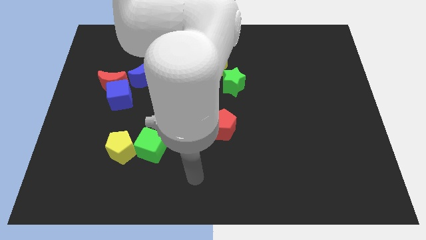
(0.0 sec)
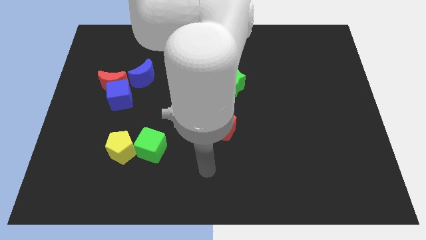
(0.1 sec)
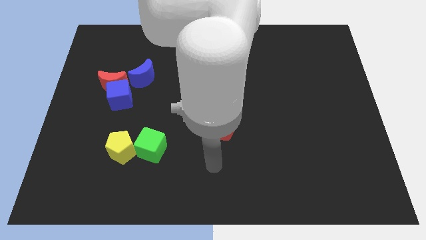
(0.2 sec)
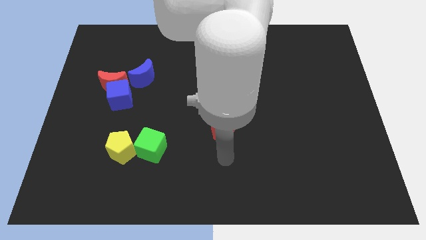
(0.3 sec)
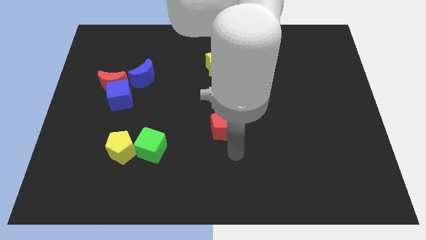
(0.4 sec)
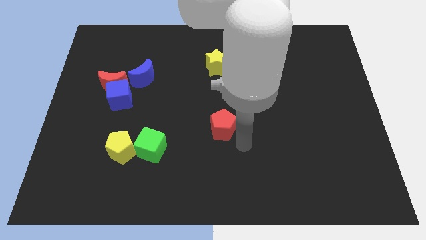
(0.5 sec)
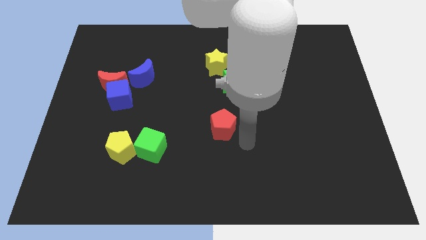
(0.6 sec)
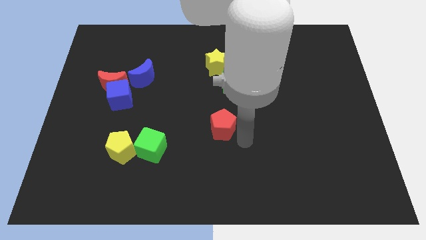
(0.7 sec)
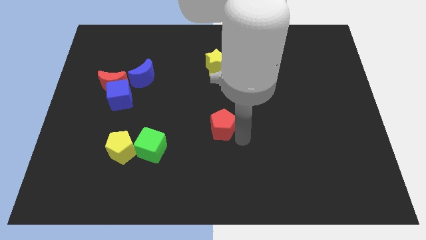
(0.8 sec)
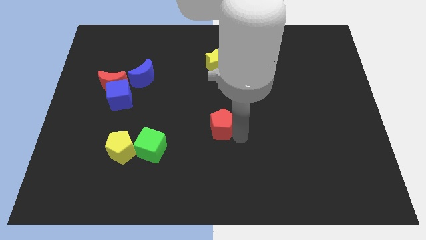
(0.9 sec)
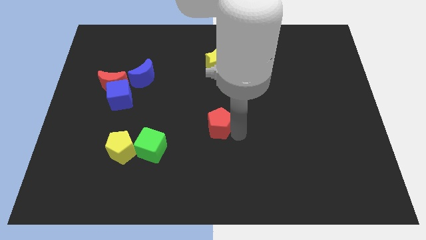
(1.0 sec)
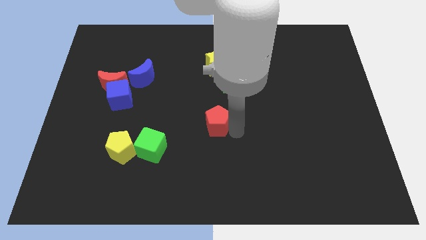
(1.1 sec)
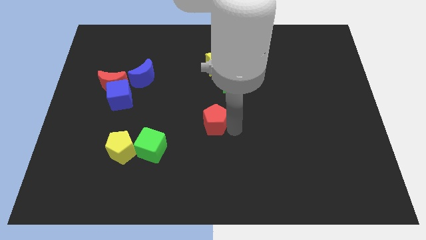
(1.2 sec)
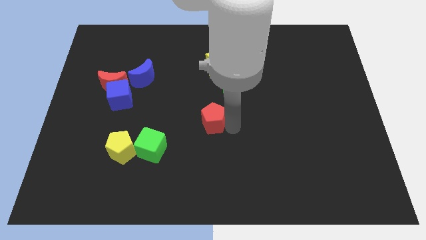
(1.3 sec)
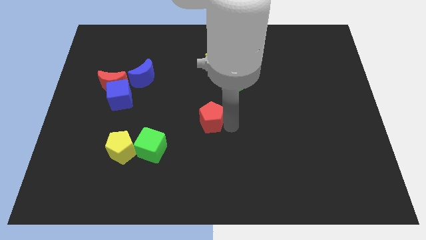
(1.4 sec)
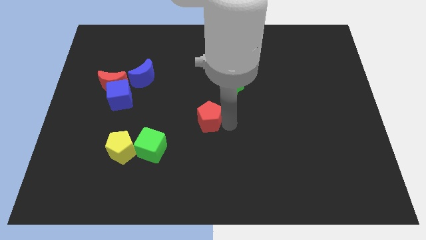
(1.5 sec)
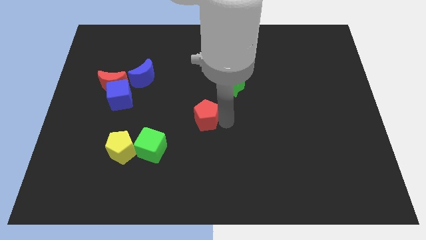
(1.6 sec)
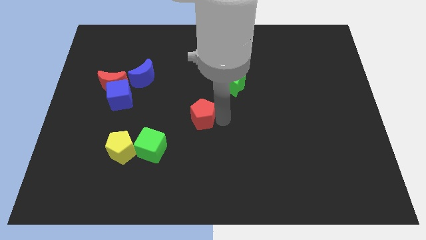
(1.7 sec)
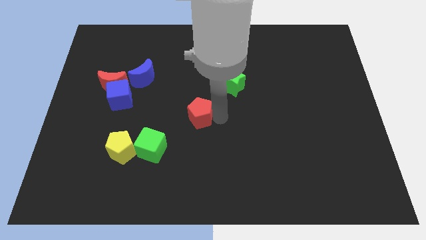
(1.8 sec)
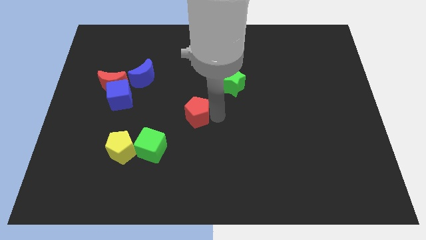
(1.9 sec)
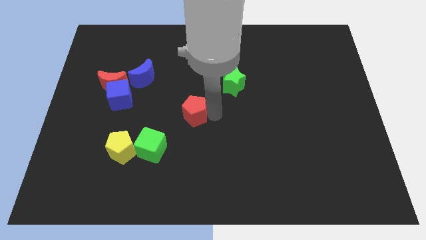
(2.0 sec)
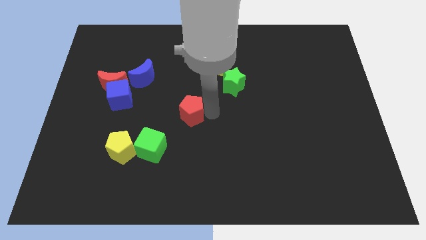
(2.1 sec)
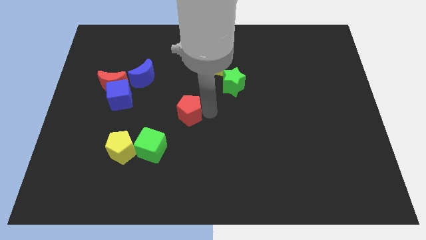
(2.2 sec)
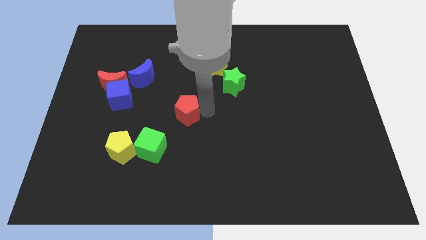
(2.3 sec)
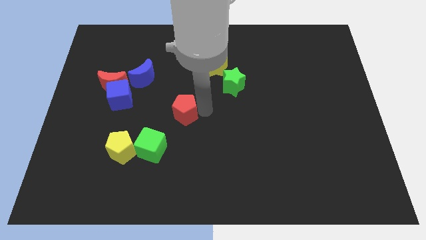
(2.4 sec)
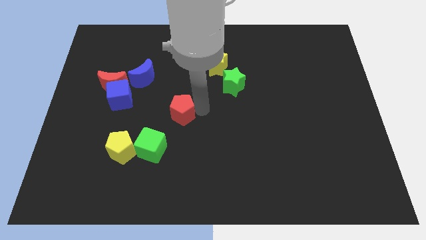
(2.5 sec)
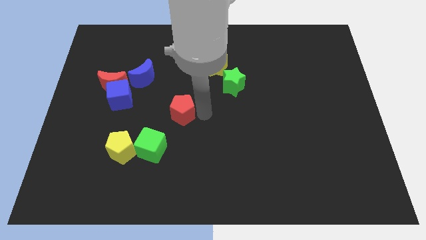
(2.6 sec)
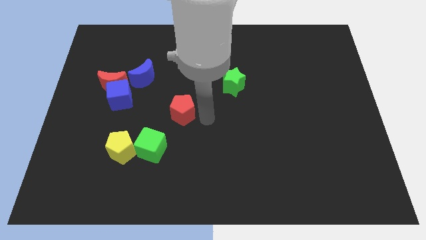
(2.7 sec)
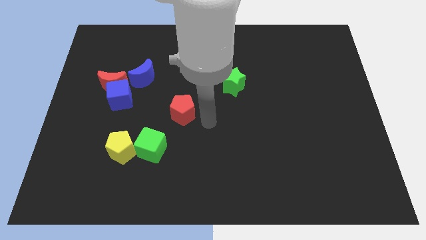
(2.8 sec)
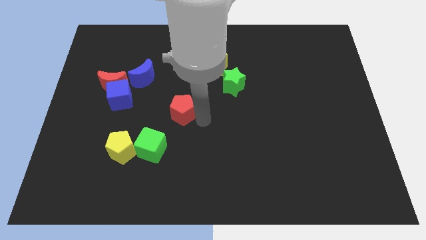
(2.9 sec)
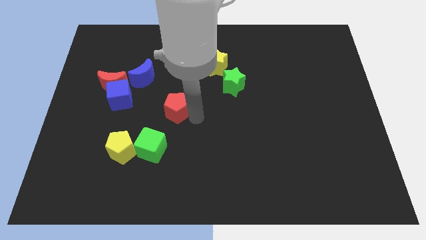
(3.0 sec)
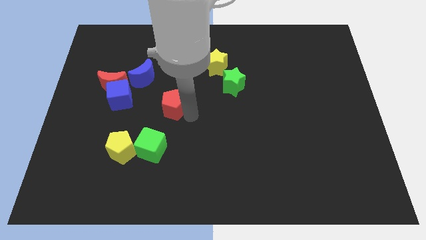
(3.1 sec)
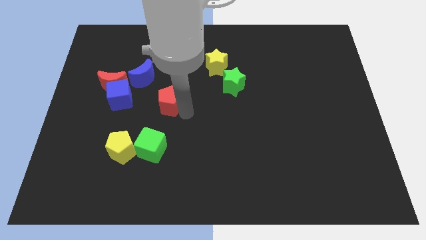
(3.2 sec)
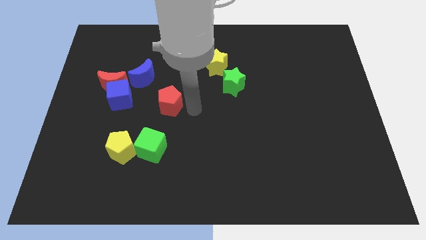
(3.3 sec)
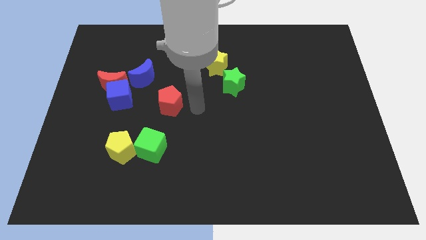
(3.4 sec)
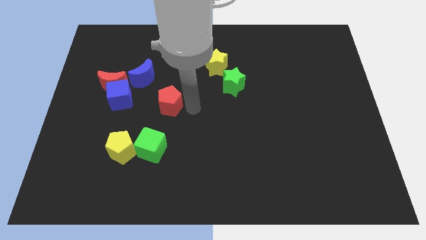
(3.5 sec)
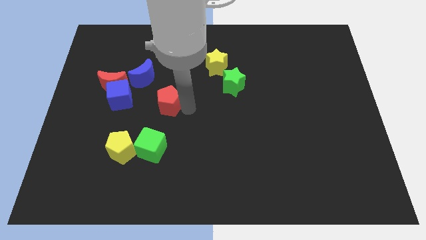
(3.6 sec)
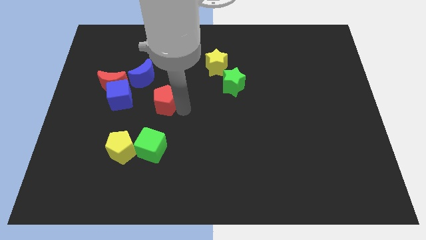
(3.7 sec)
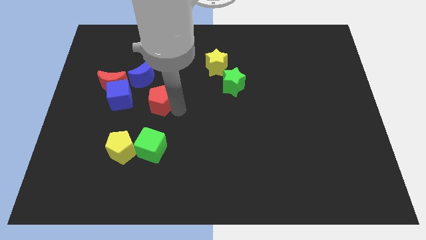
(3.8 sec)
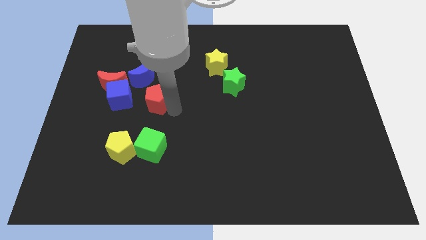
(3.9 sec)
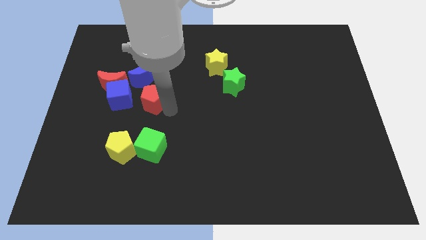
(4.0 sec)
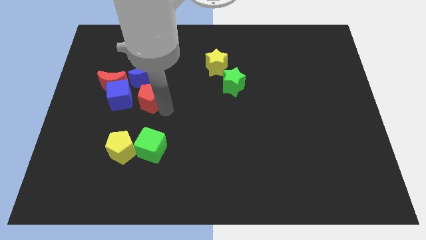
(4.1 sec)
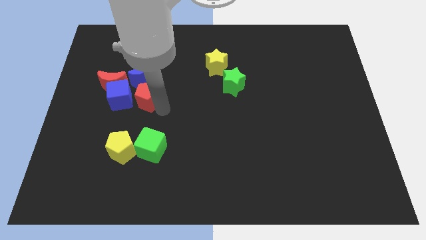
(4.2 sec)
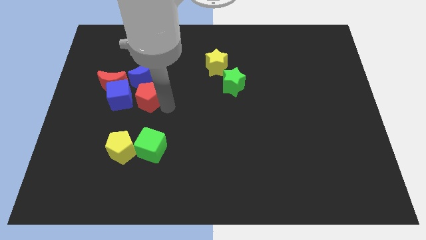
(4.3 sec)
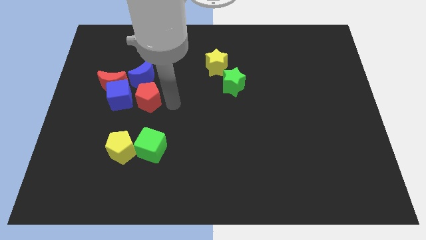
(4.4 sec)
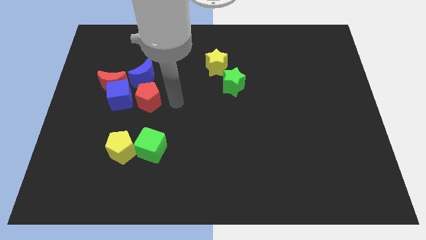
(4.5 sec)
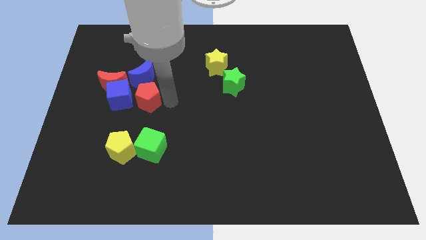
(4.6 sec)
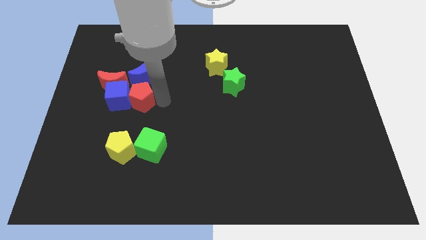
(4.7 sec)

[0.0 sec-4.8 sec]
push the red pentagon to the blue cube

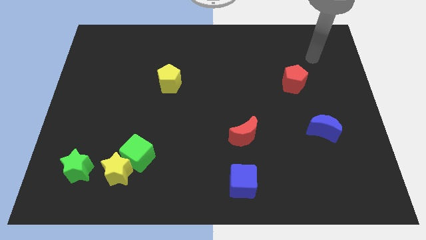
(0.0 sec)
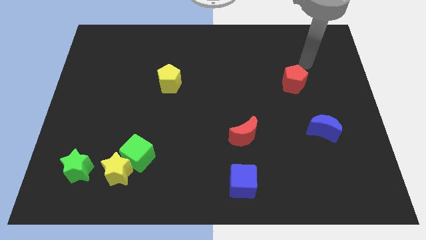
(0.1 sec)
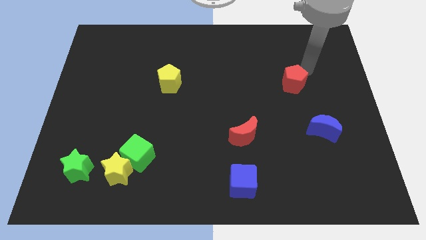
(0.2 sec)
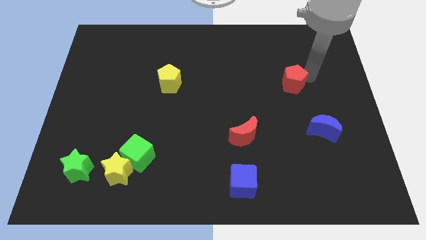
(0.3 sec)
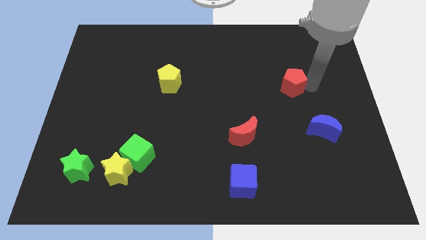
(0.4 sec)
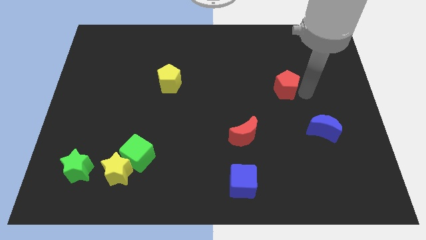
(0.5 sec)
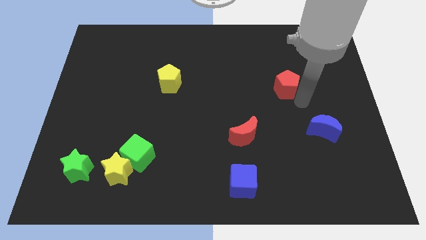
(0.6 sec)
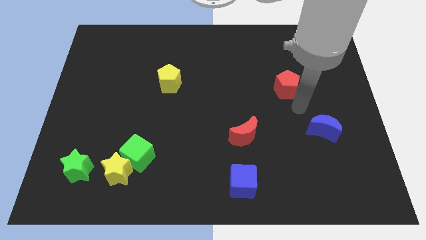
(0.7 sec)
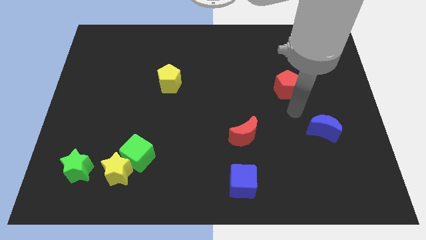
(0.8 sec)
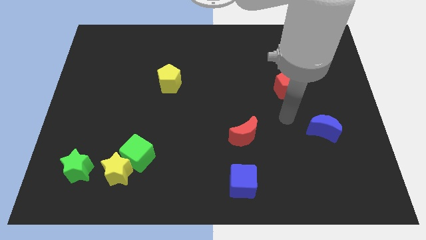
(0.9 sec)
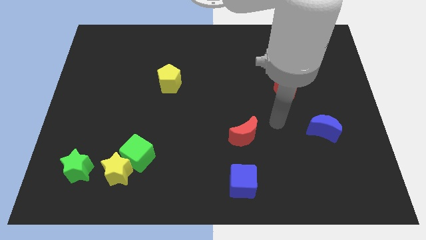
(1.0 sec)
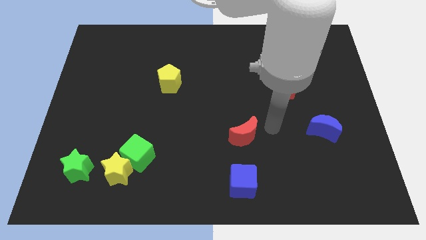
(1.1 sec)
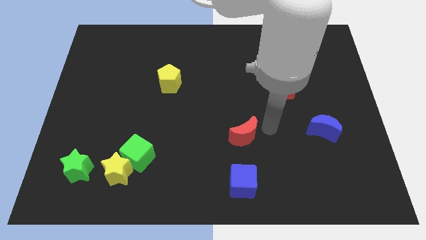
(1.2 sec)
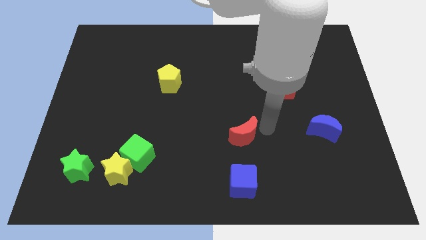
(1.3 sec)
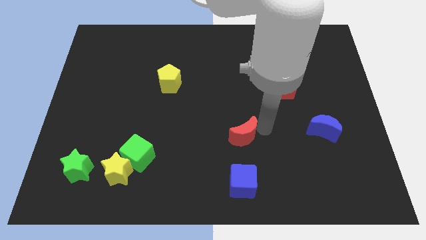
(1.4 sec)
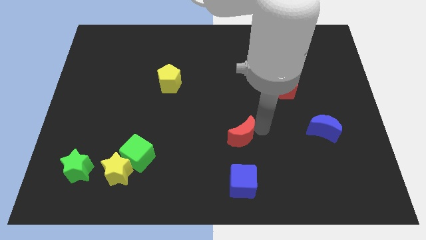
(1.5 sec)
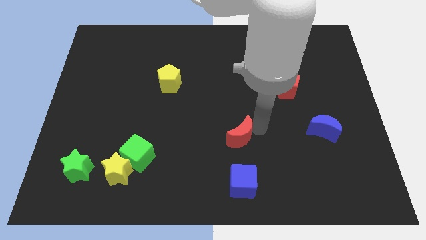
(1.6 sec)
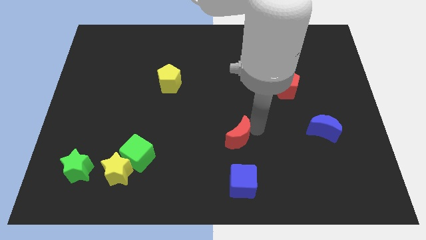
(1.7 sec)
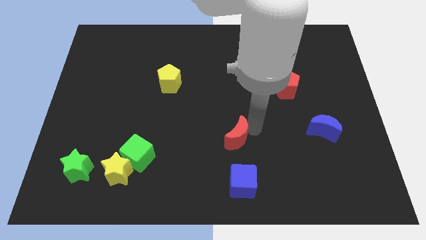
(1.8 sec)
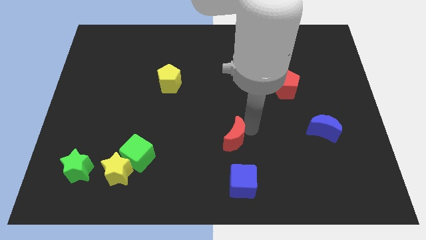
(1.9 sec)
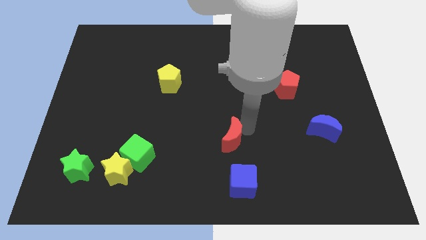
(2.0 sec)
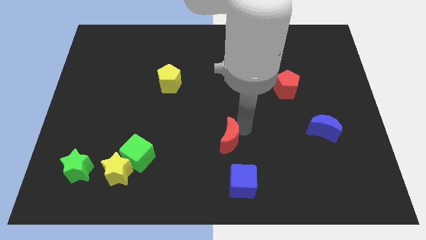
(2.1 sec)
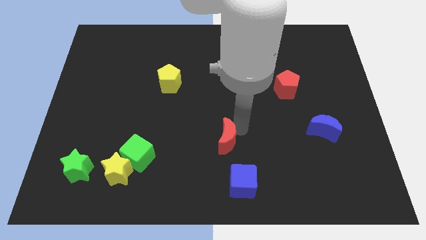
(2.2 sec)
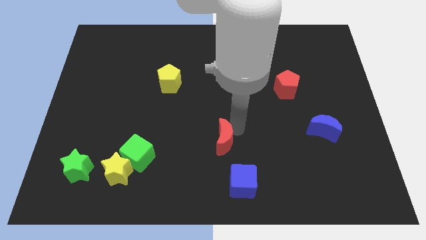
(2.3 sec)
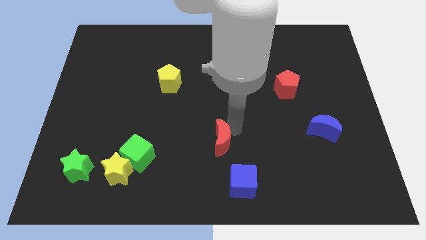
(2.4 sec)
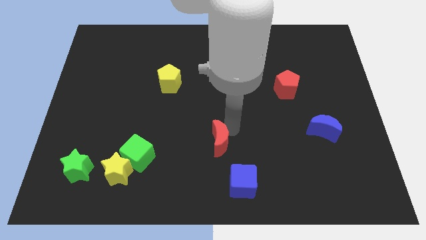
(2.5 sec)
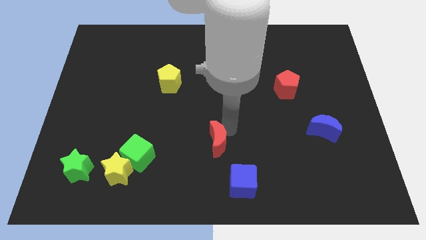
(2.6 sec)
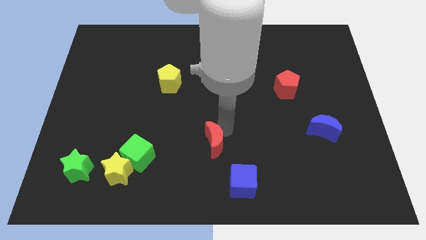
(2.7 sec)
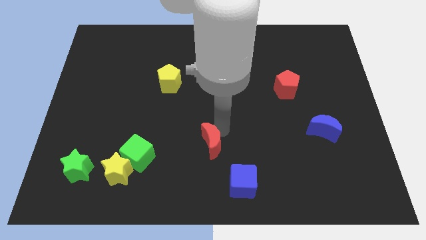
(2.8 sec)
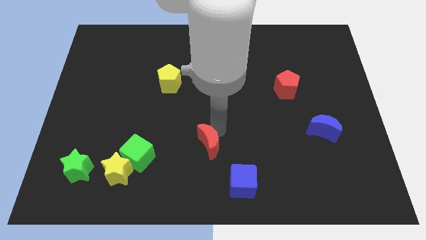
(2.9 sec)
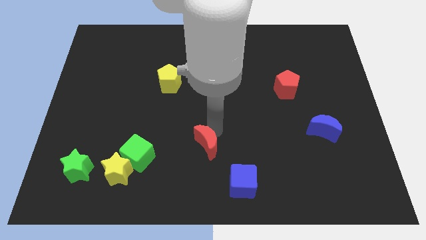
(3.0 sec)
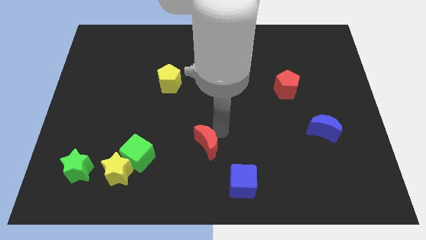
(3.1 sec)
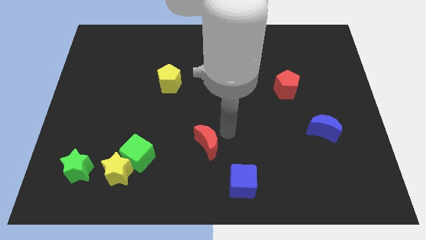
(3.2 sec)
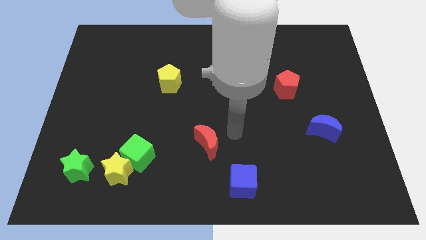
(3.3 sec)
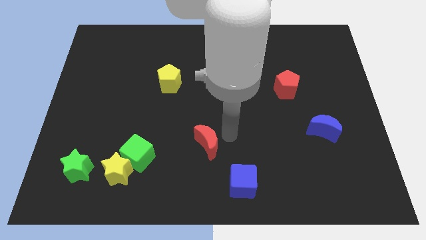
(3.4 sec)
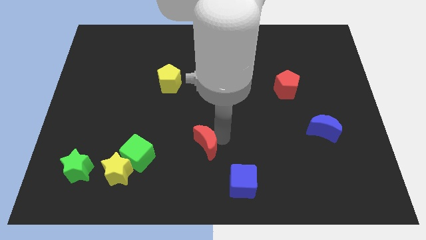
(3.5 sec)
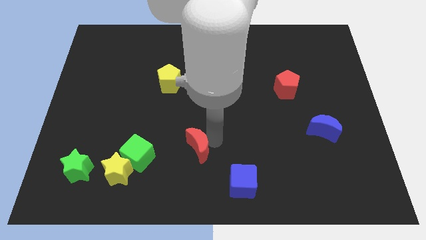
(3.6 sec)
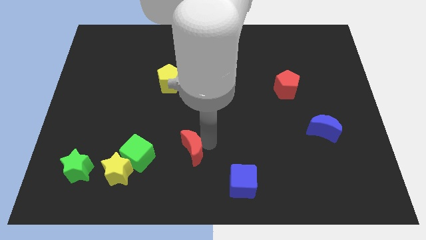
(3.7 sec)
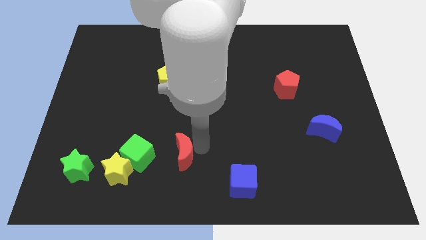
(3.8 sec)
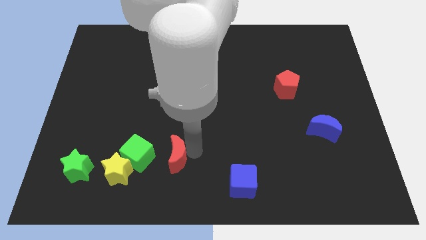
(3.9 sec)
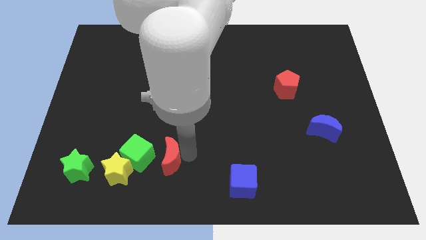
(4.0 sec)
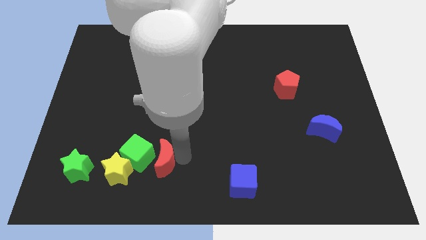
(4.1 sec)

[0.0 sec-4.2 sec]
push the red moon towards the green cube
